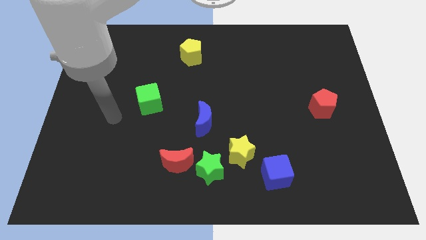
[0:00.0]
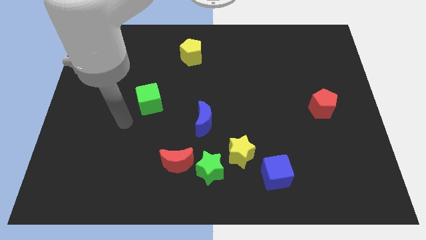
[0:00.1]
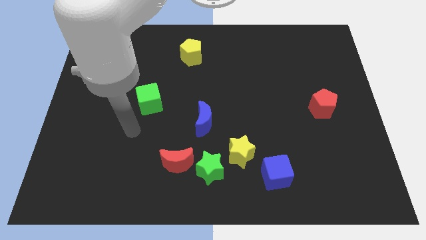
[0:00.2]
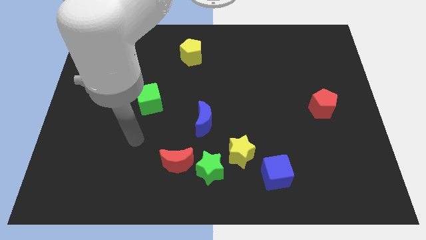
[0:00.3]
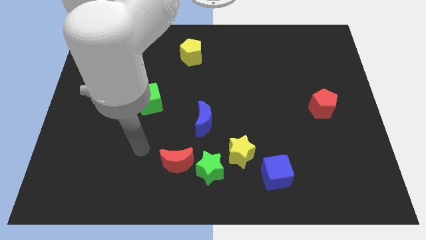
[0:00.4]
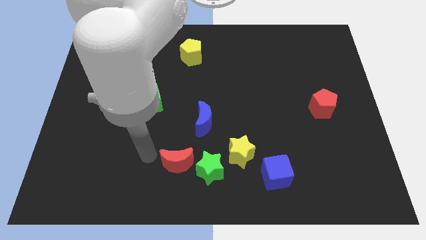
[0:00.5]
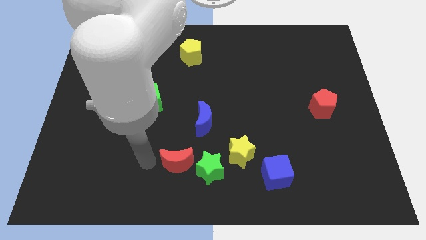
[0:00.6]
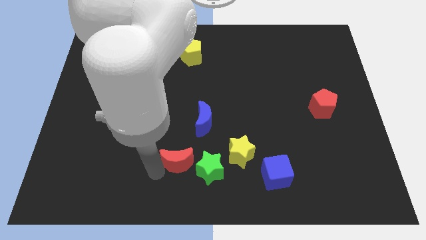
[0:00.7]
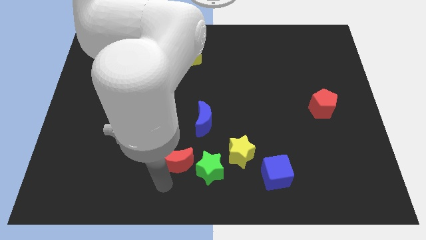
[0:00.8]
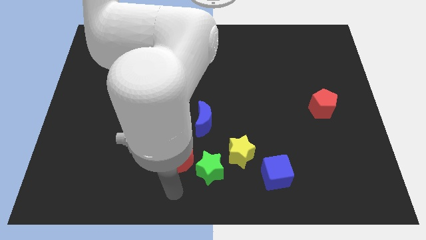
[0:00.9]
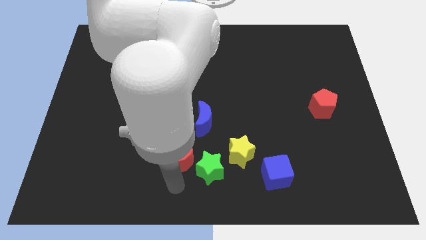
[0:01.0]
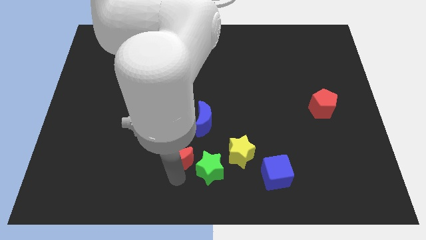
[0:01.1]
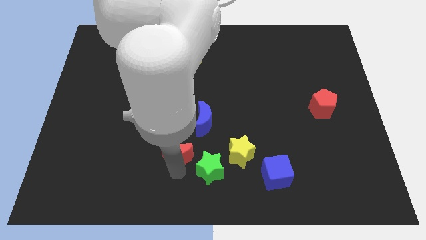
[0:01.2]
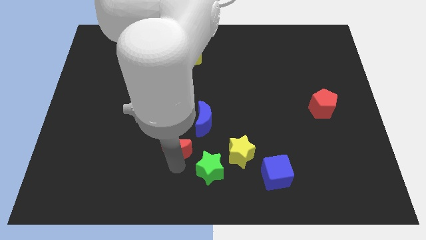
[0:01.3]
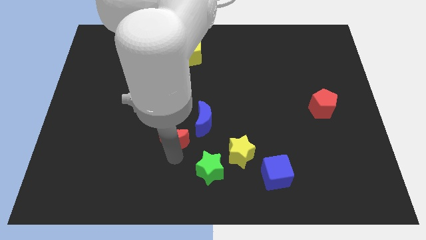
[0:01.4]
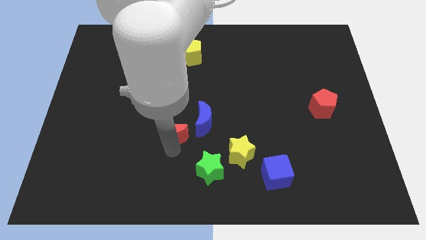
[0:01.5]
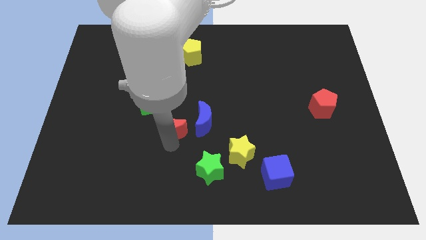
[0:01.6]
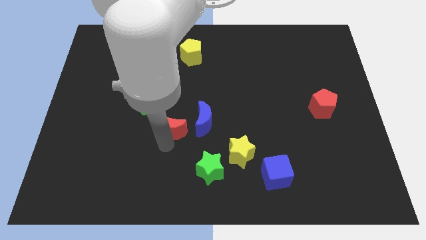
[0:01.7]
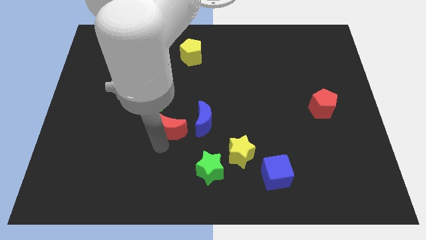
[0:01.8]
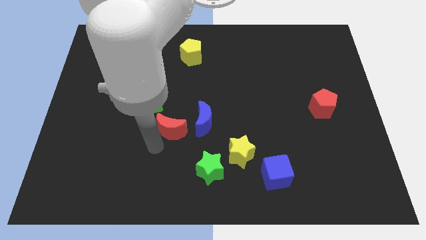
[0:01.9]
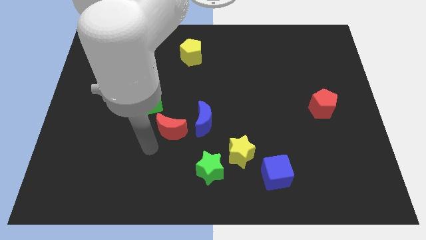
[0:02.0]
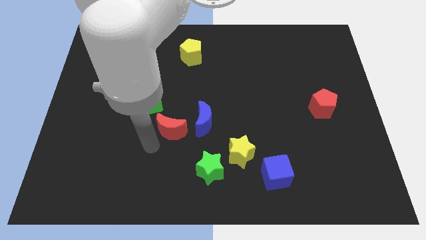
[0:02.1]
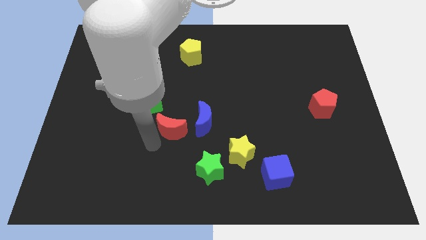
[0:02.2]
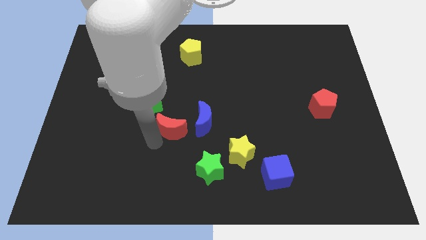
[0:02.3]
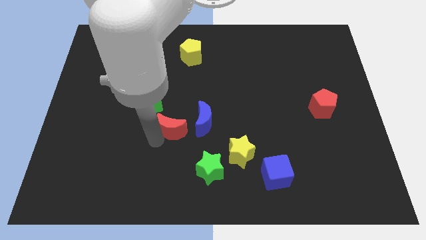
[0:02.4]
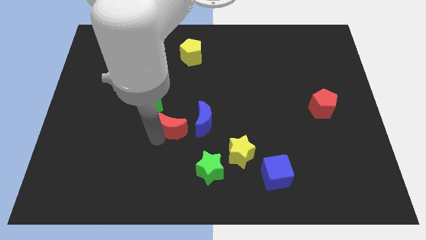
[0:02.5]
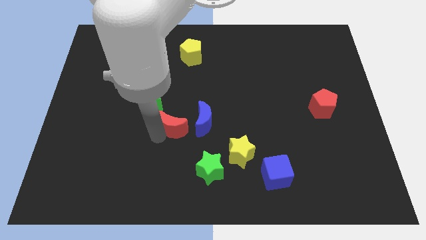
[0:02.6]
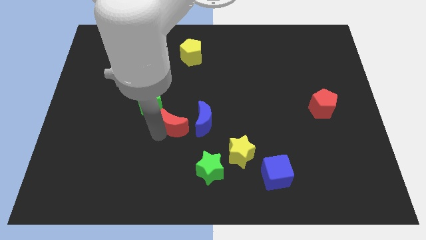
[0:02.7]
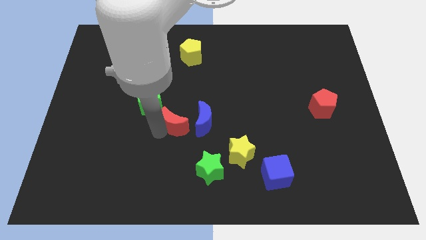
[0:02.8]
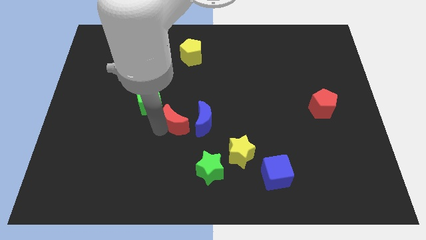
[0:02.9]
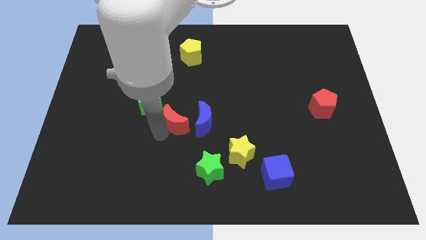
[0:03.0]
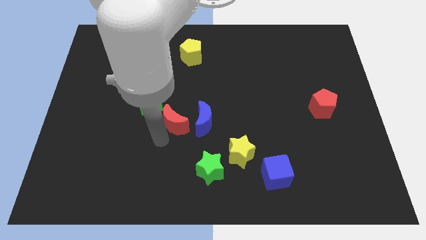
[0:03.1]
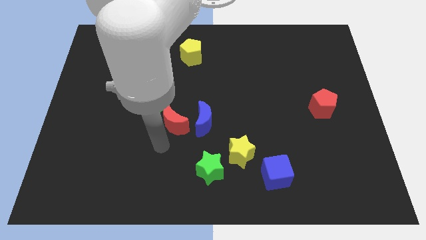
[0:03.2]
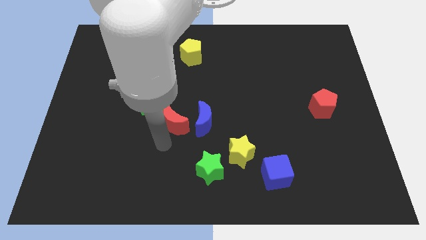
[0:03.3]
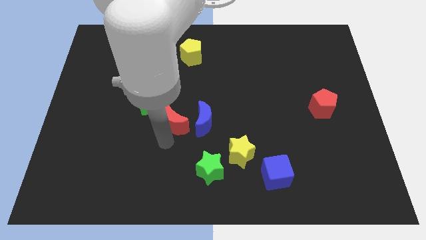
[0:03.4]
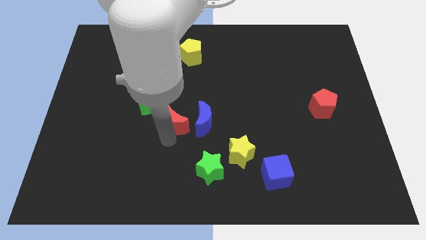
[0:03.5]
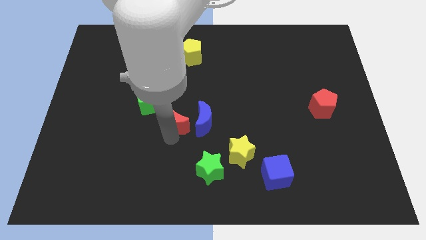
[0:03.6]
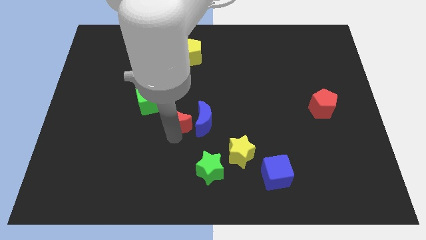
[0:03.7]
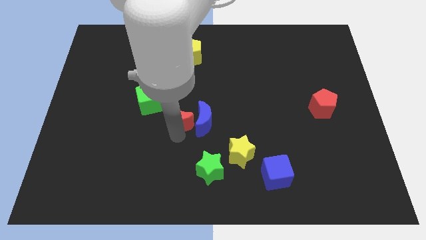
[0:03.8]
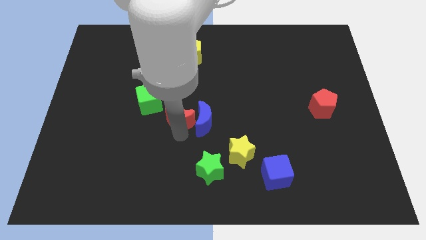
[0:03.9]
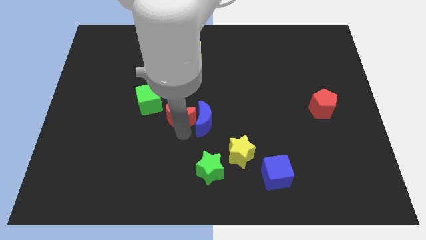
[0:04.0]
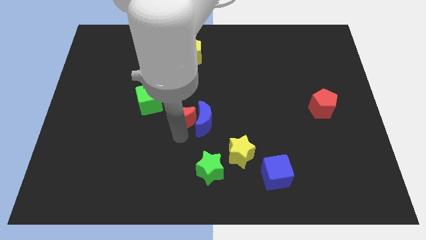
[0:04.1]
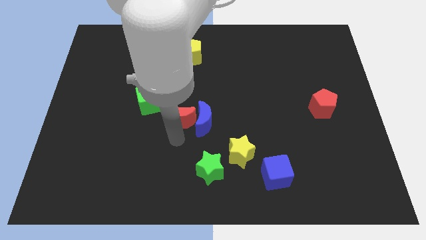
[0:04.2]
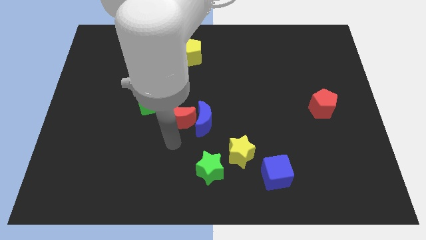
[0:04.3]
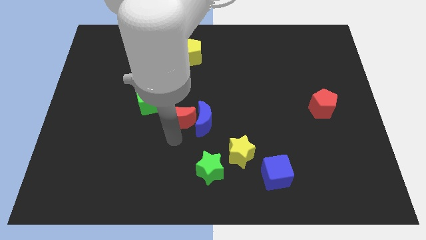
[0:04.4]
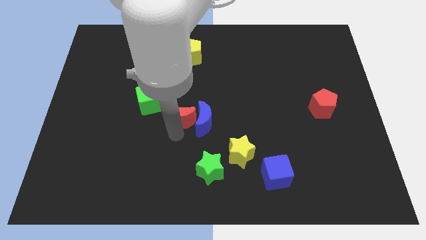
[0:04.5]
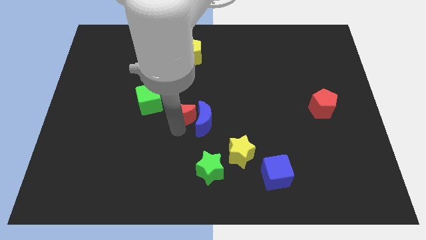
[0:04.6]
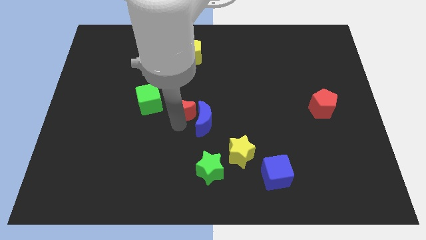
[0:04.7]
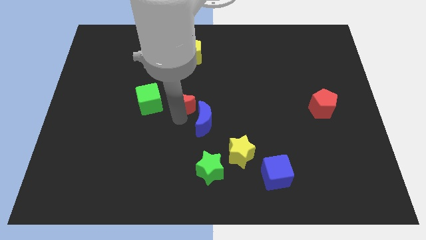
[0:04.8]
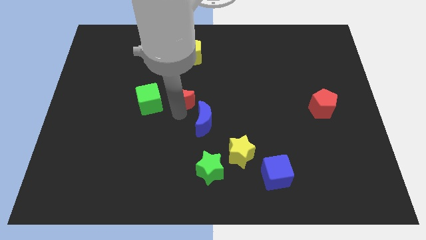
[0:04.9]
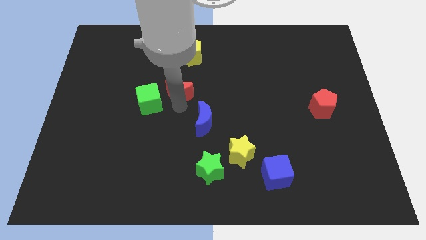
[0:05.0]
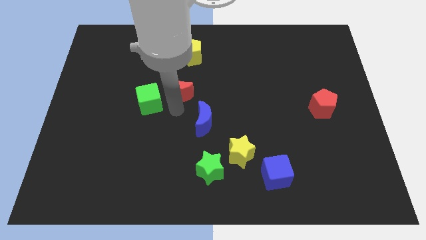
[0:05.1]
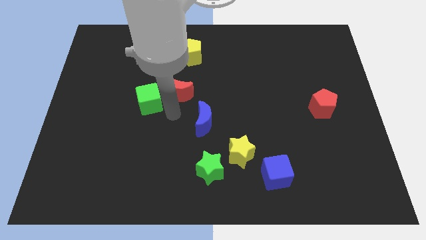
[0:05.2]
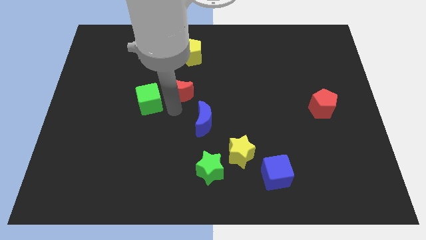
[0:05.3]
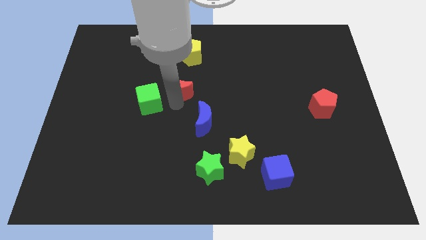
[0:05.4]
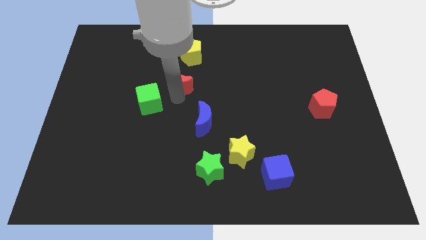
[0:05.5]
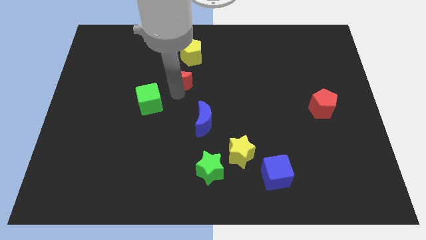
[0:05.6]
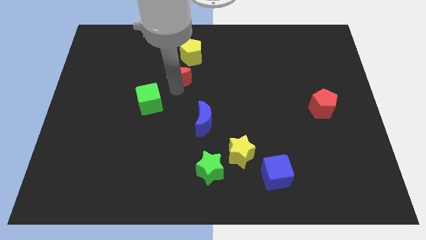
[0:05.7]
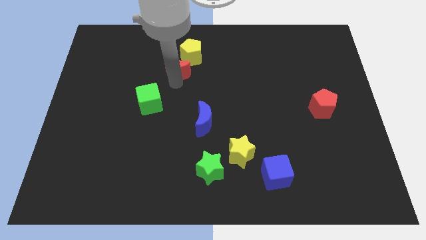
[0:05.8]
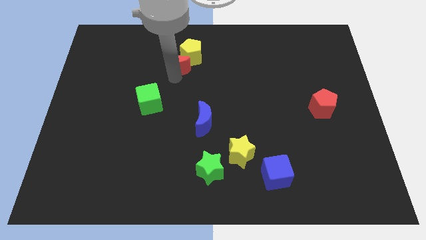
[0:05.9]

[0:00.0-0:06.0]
put the red moon towards the yellow pentagon

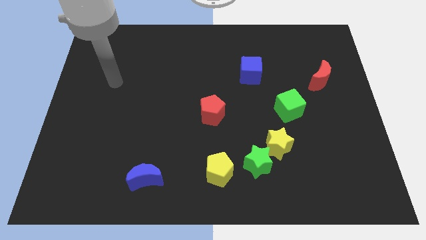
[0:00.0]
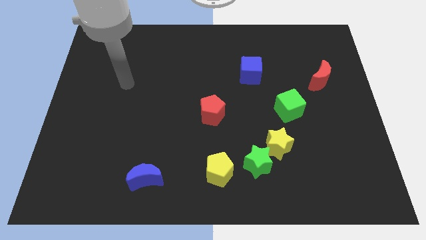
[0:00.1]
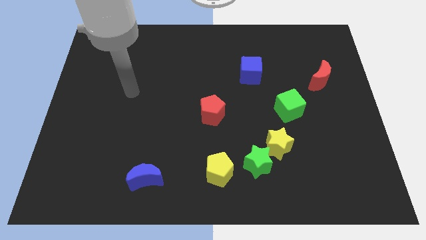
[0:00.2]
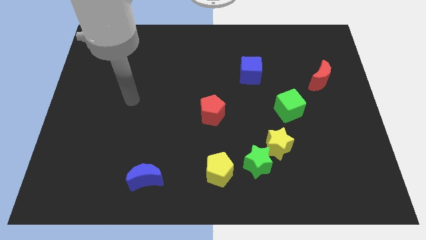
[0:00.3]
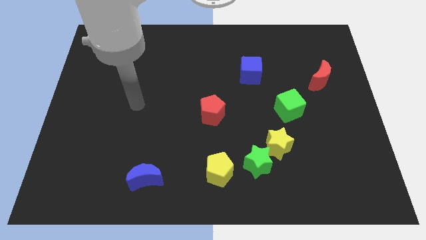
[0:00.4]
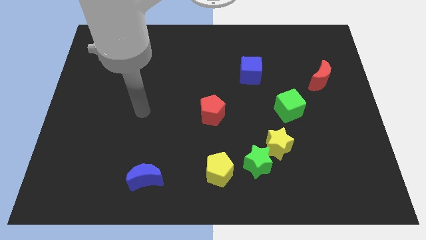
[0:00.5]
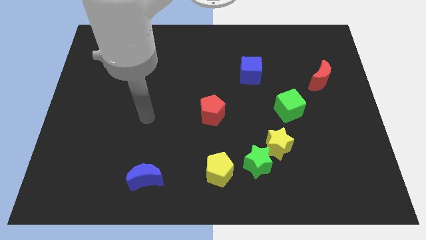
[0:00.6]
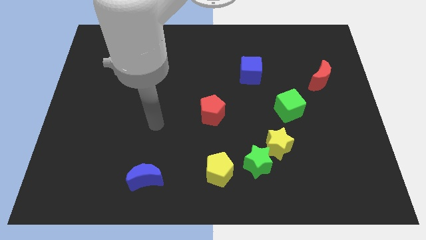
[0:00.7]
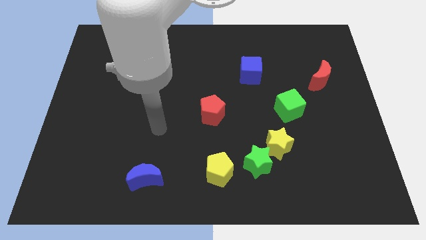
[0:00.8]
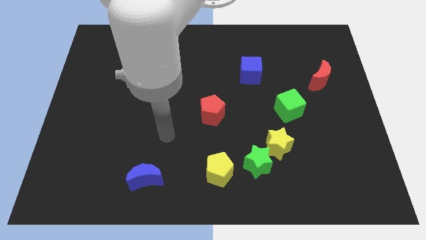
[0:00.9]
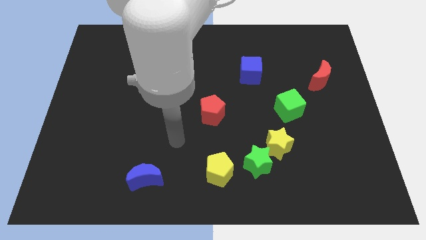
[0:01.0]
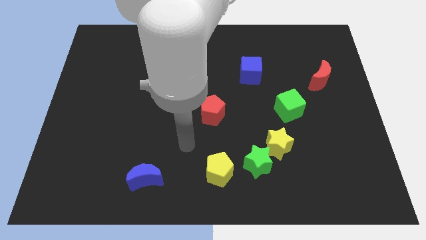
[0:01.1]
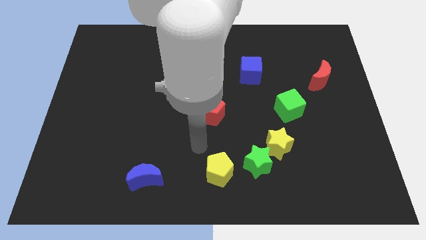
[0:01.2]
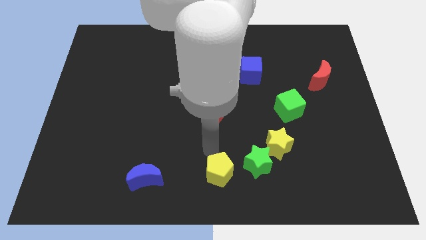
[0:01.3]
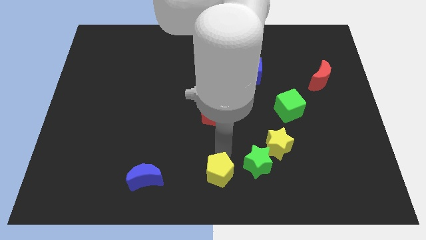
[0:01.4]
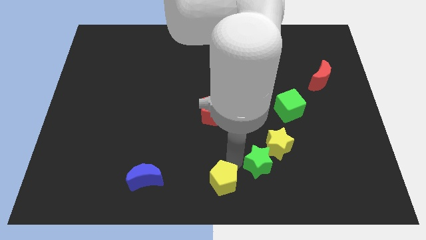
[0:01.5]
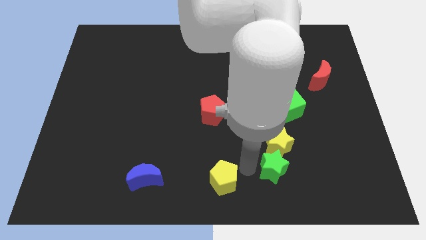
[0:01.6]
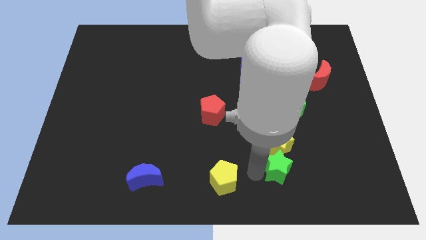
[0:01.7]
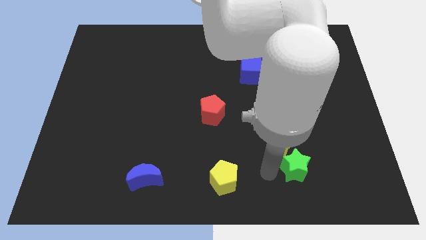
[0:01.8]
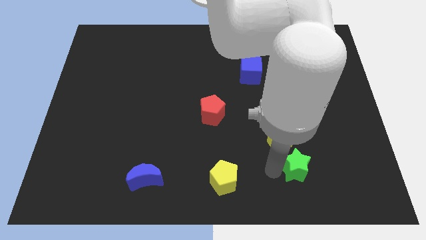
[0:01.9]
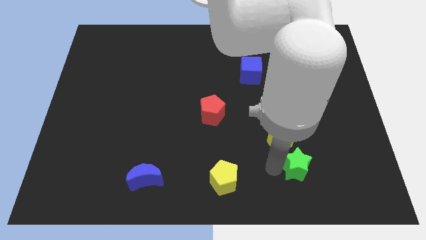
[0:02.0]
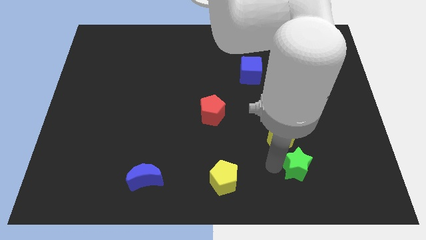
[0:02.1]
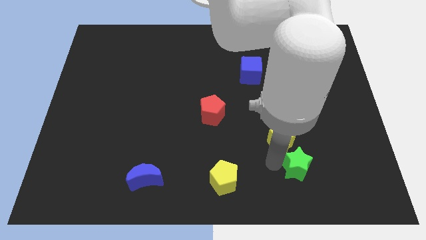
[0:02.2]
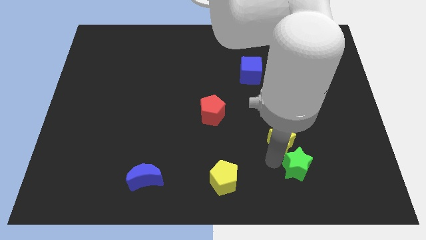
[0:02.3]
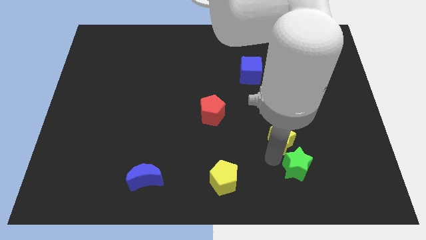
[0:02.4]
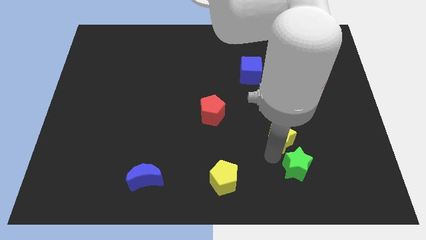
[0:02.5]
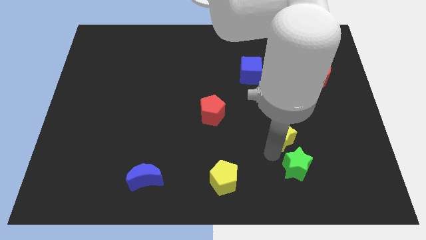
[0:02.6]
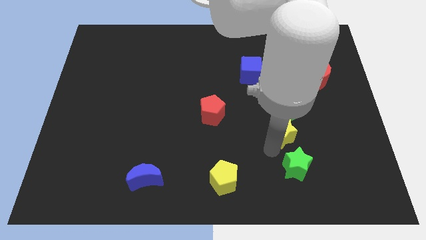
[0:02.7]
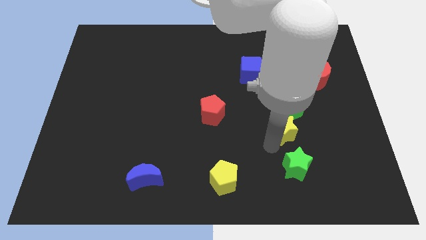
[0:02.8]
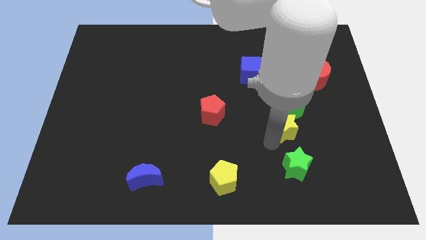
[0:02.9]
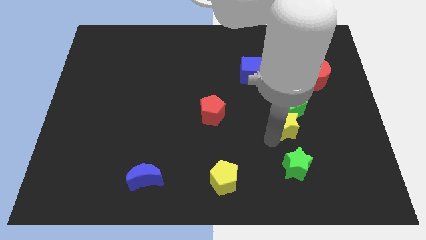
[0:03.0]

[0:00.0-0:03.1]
move the yellow star towards the green cube
